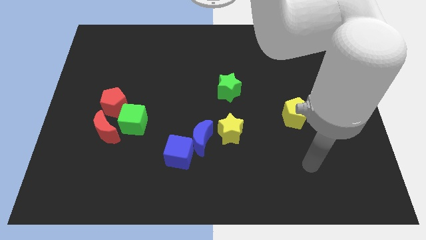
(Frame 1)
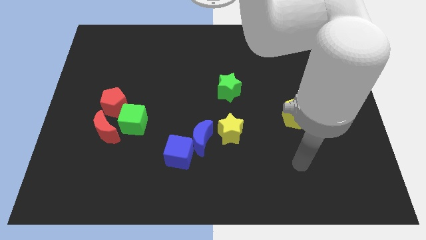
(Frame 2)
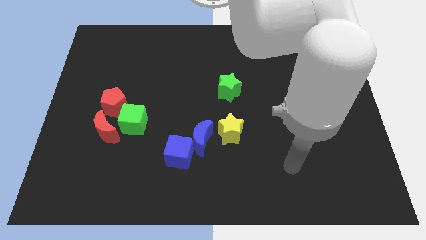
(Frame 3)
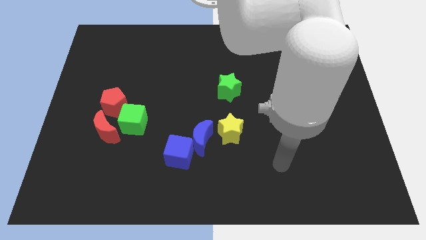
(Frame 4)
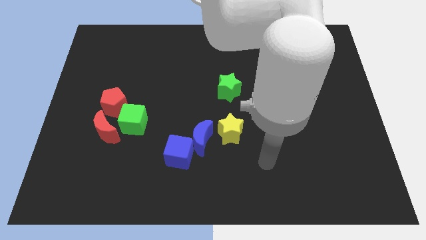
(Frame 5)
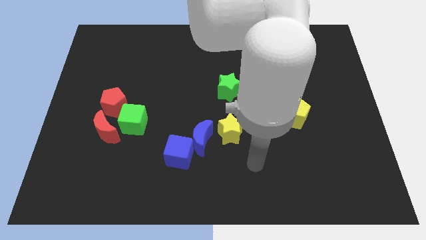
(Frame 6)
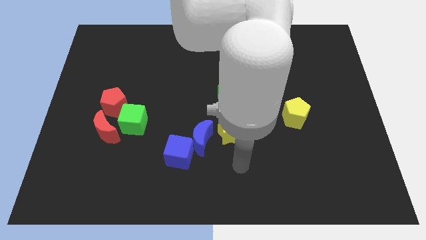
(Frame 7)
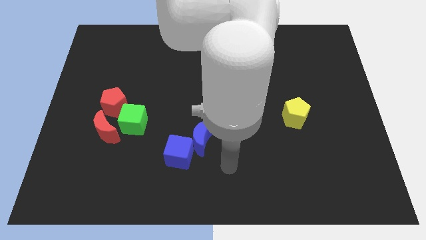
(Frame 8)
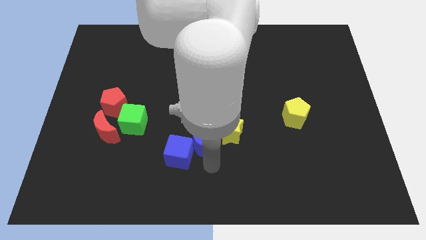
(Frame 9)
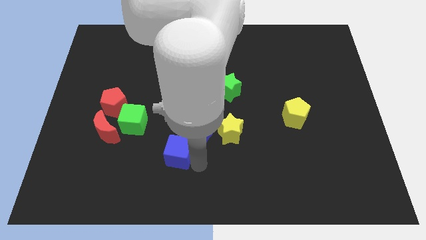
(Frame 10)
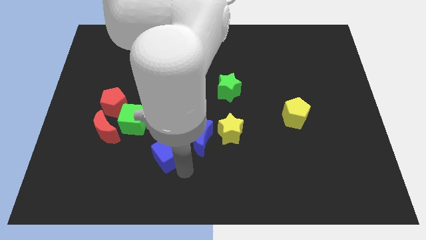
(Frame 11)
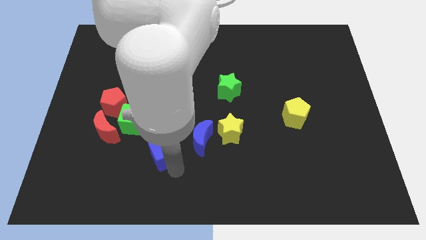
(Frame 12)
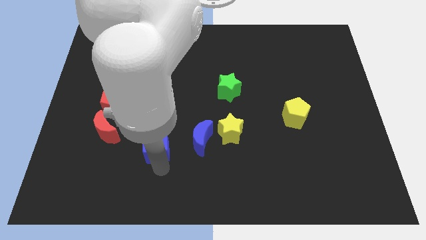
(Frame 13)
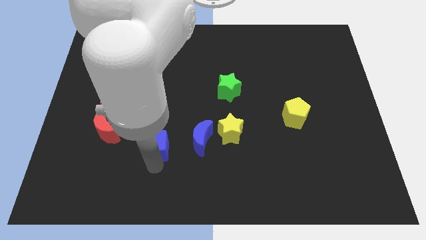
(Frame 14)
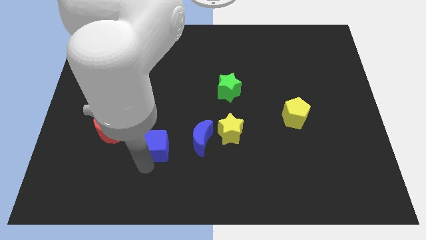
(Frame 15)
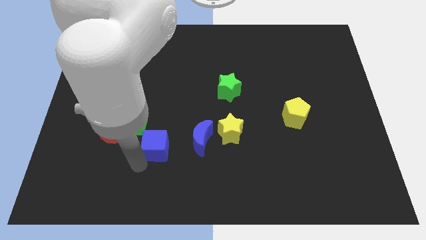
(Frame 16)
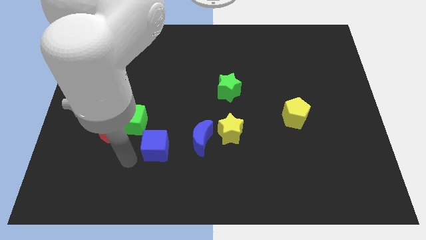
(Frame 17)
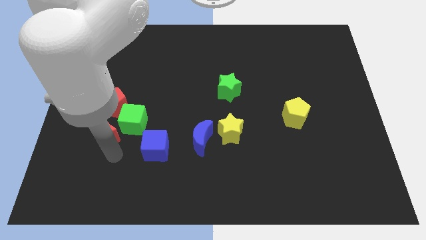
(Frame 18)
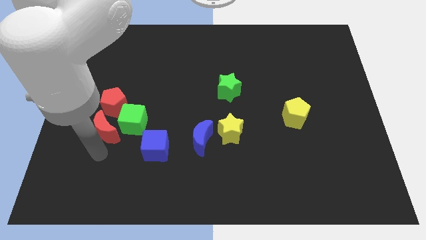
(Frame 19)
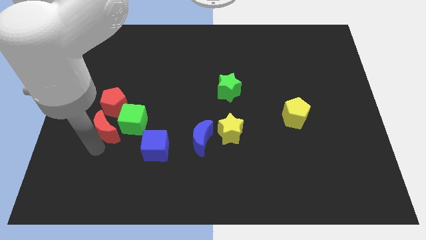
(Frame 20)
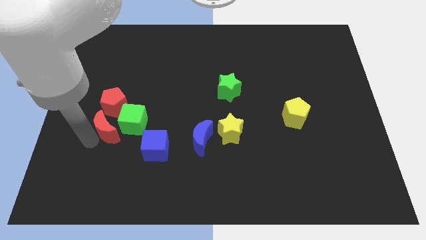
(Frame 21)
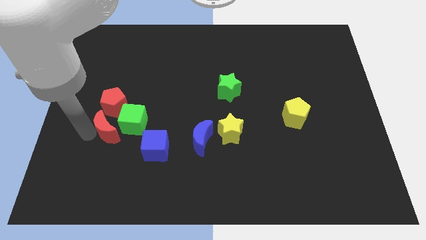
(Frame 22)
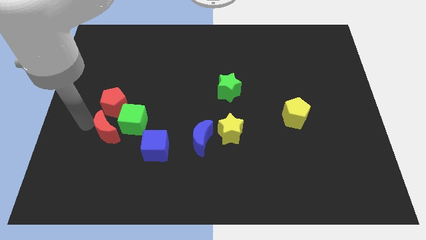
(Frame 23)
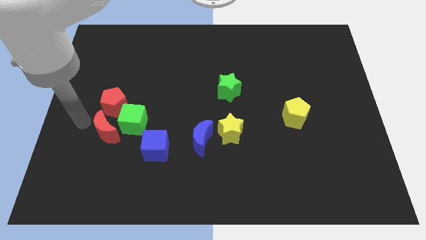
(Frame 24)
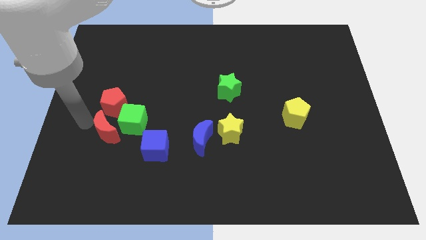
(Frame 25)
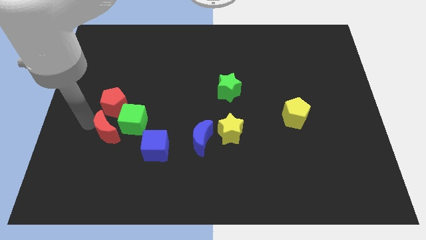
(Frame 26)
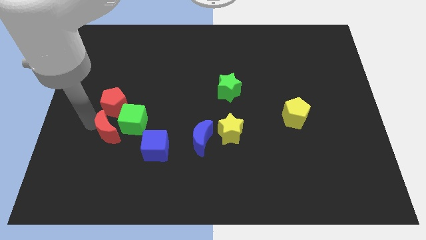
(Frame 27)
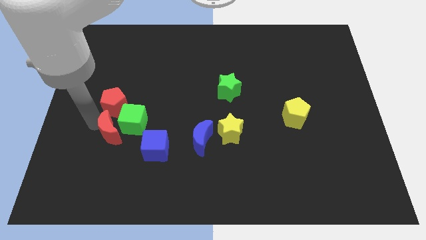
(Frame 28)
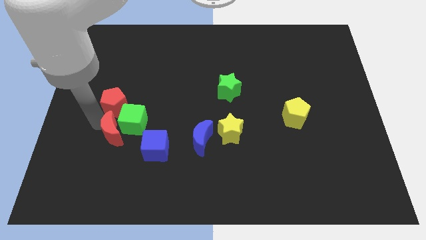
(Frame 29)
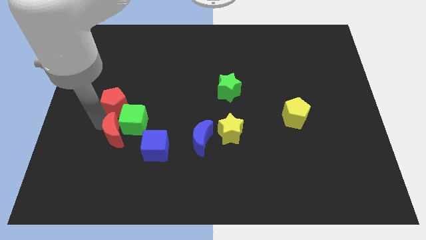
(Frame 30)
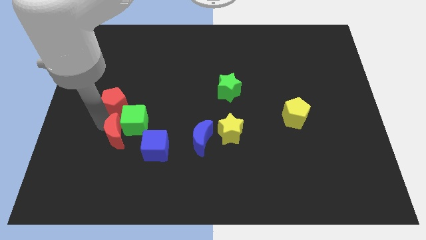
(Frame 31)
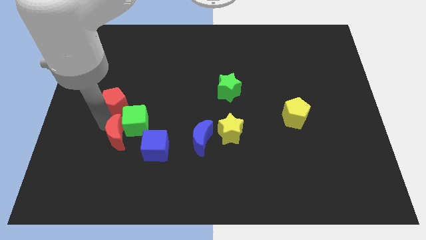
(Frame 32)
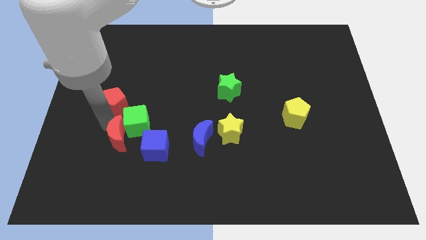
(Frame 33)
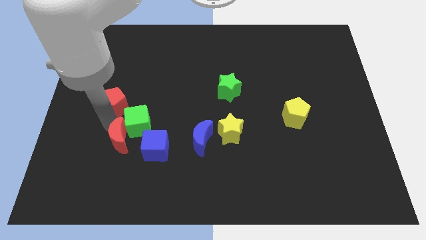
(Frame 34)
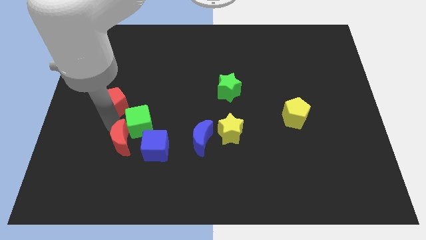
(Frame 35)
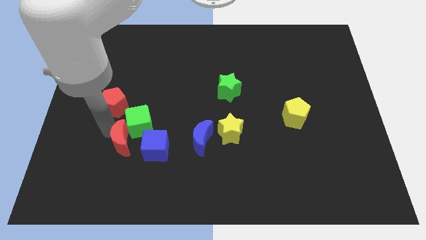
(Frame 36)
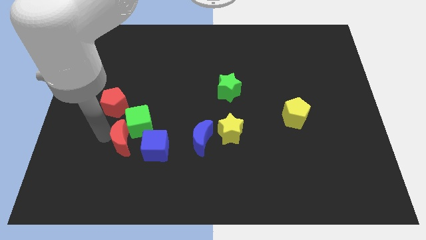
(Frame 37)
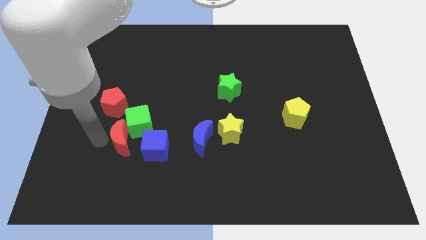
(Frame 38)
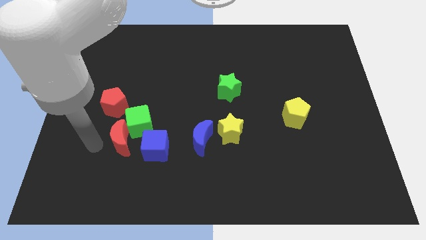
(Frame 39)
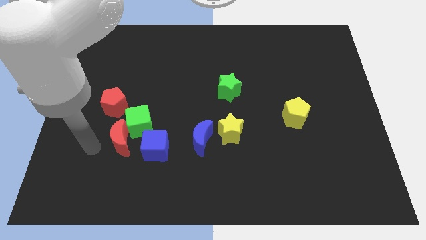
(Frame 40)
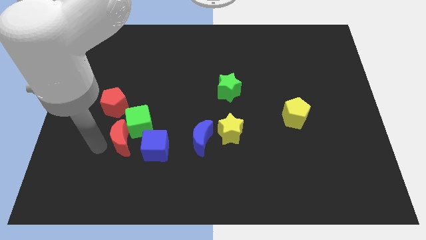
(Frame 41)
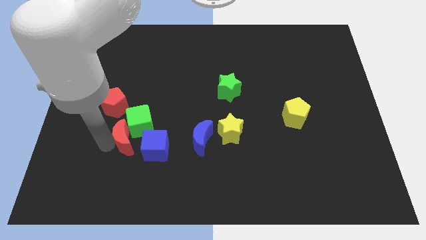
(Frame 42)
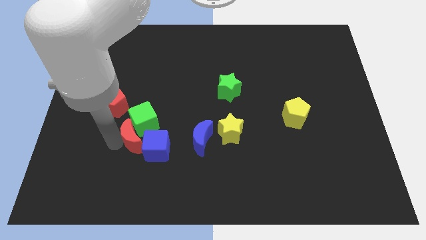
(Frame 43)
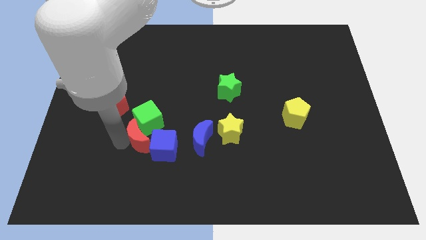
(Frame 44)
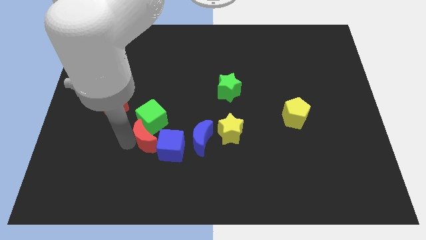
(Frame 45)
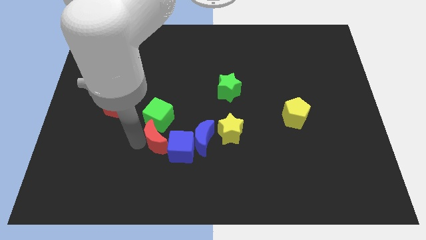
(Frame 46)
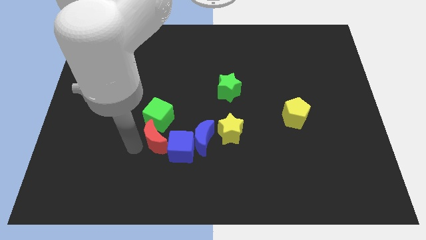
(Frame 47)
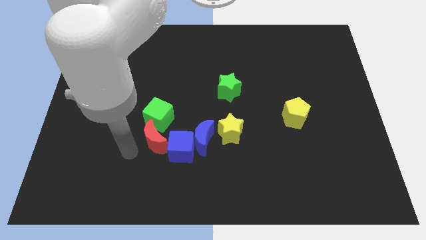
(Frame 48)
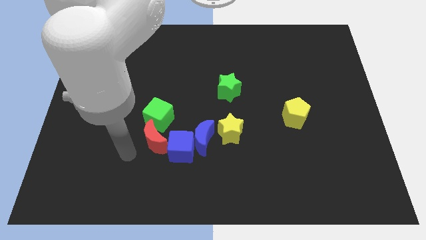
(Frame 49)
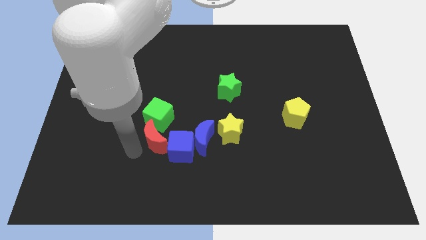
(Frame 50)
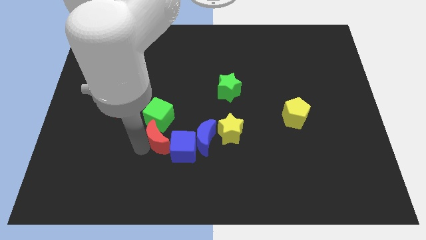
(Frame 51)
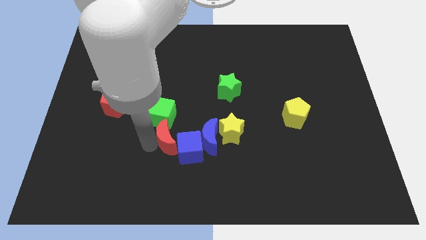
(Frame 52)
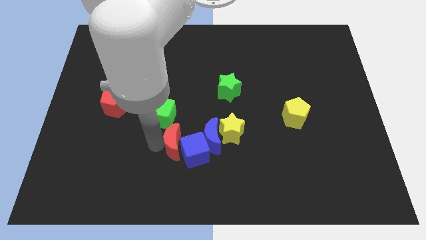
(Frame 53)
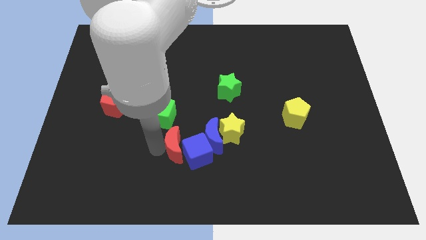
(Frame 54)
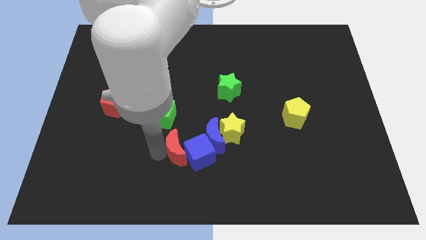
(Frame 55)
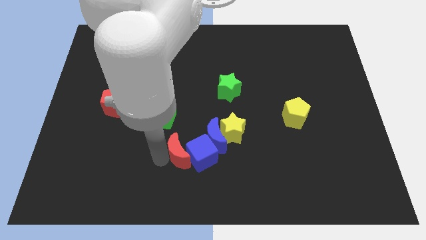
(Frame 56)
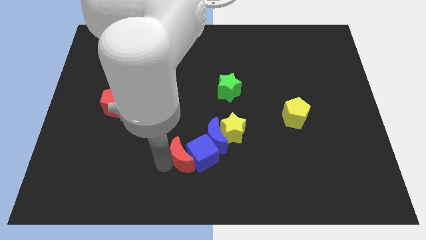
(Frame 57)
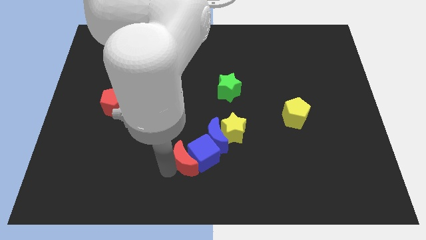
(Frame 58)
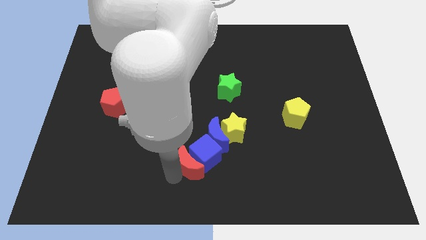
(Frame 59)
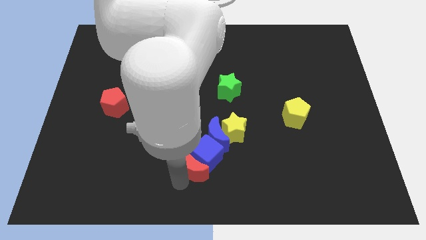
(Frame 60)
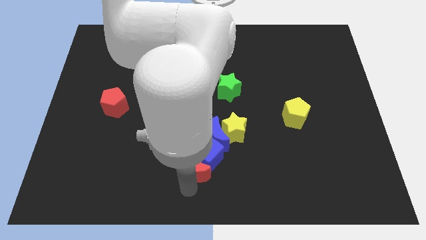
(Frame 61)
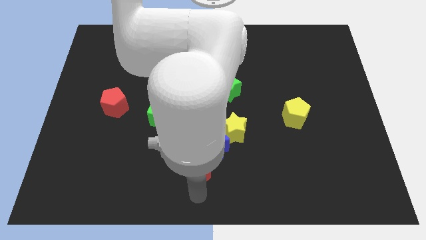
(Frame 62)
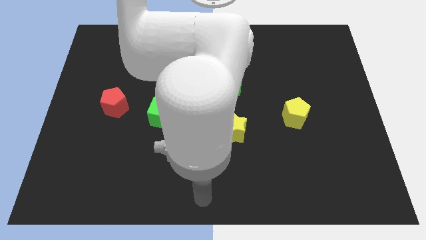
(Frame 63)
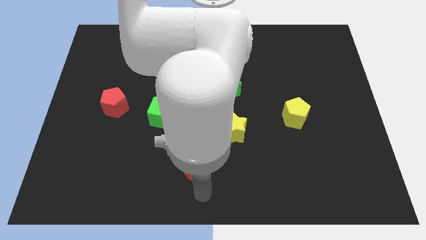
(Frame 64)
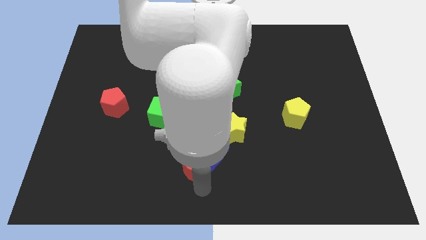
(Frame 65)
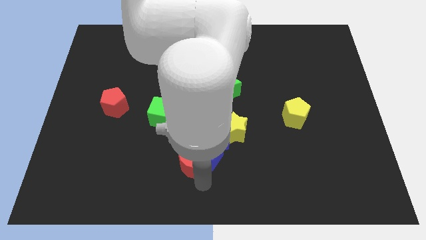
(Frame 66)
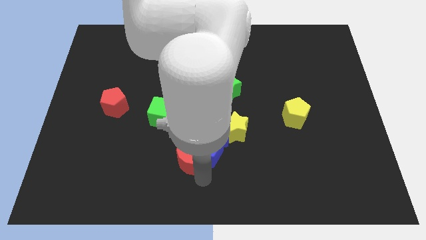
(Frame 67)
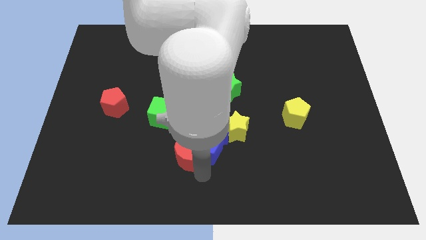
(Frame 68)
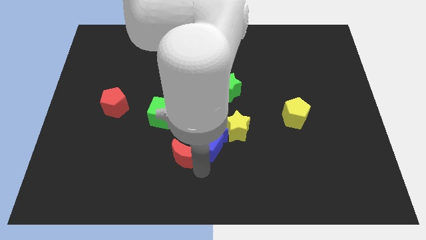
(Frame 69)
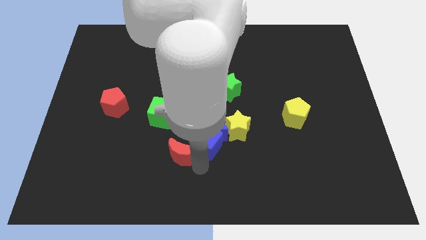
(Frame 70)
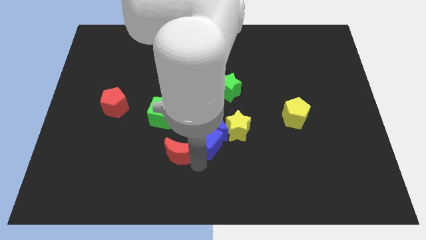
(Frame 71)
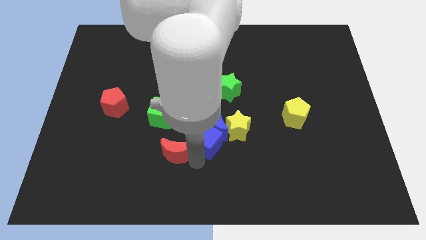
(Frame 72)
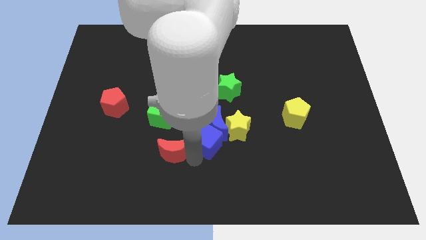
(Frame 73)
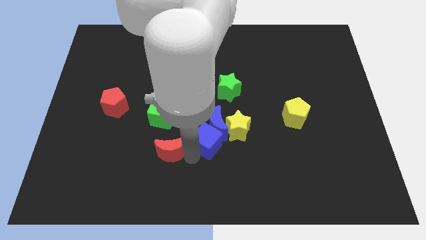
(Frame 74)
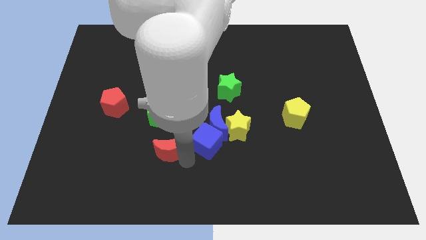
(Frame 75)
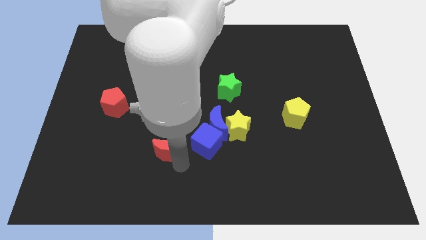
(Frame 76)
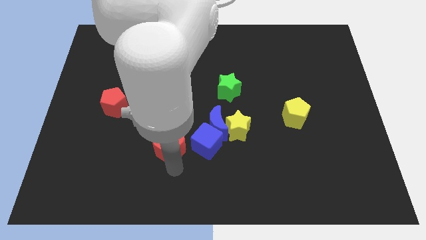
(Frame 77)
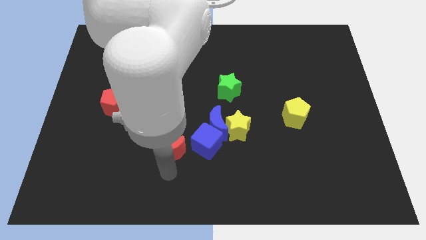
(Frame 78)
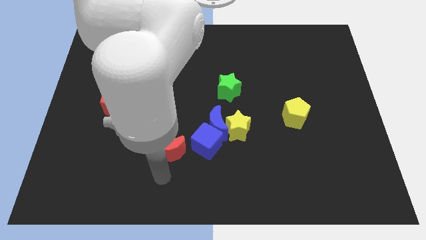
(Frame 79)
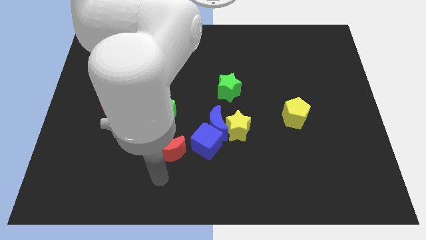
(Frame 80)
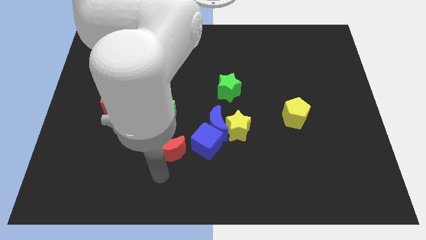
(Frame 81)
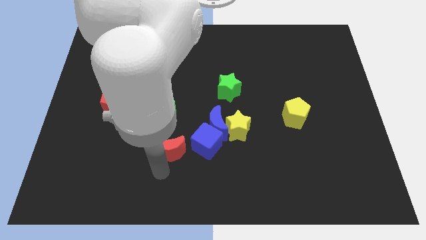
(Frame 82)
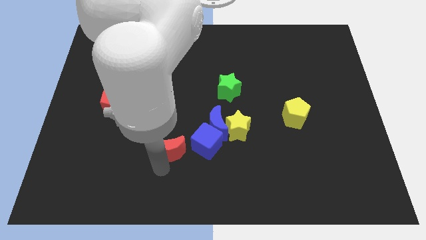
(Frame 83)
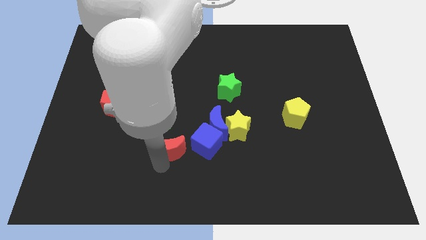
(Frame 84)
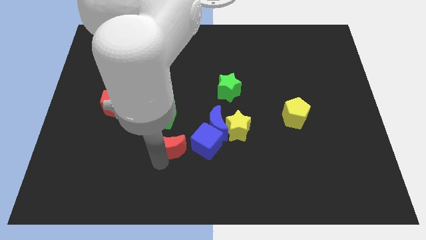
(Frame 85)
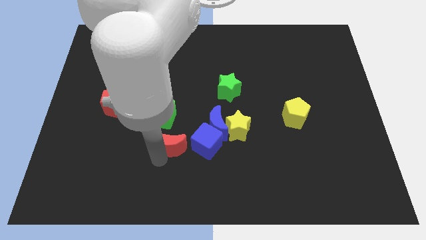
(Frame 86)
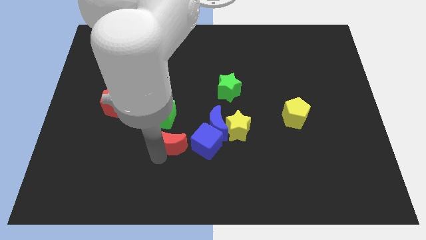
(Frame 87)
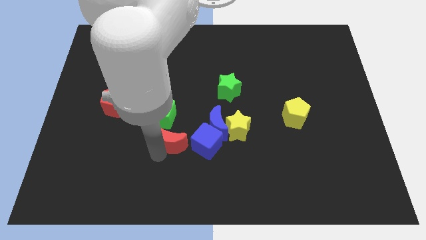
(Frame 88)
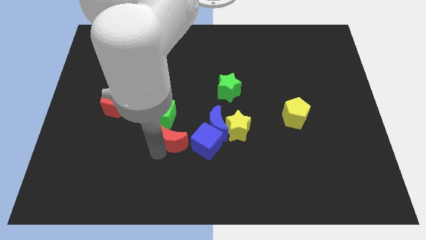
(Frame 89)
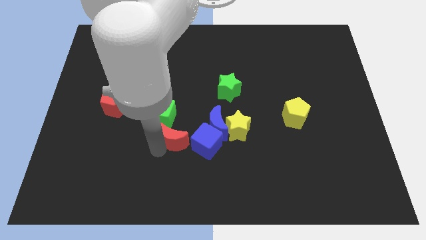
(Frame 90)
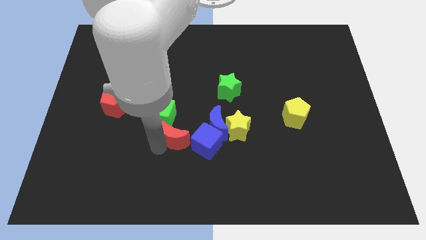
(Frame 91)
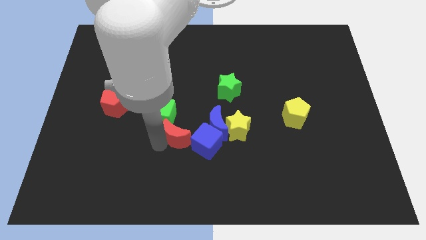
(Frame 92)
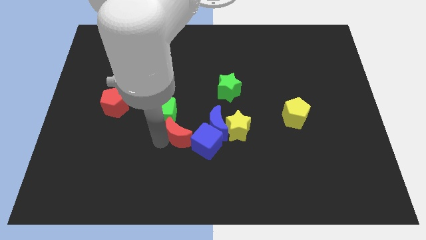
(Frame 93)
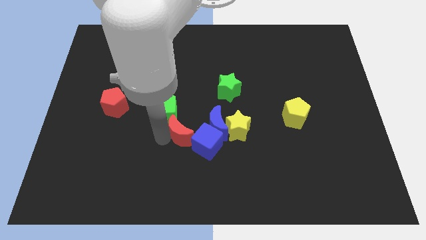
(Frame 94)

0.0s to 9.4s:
slide the red moon to the middle of the board
